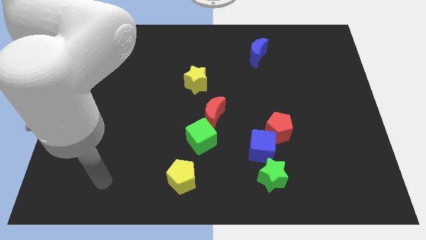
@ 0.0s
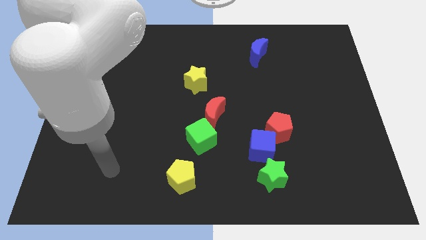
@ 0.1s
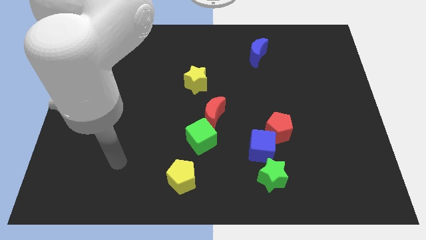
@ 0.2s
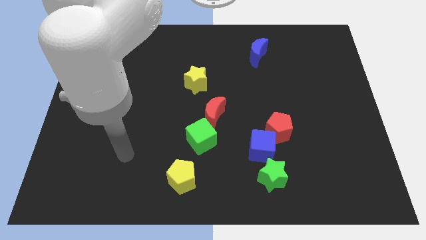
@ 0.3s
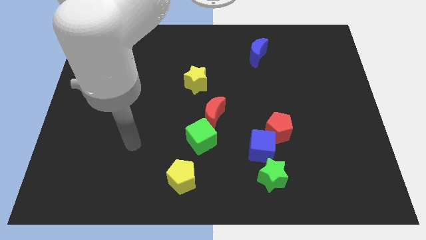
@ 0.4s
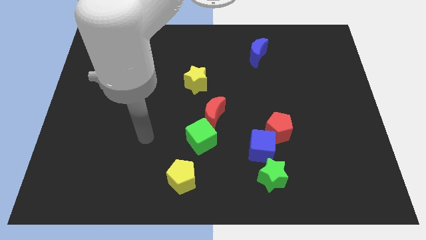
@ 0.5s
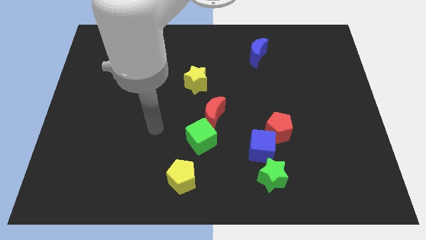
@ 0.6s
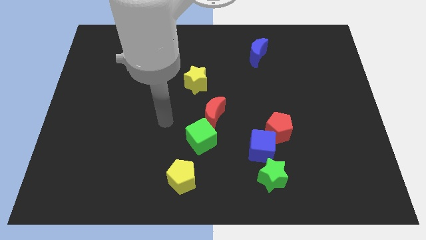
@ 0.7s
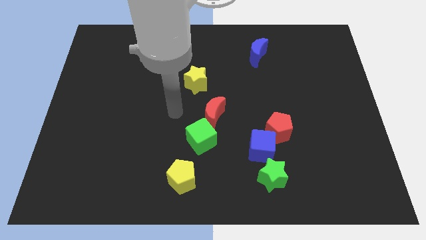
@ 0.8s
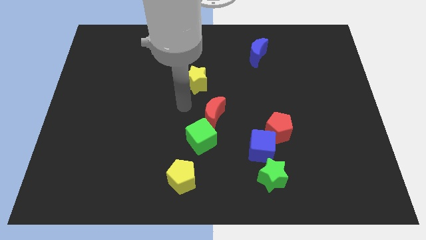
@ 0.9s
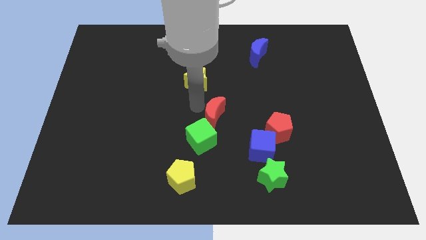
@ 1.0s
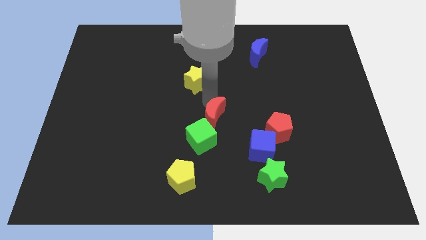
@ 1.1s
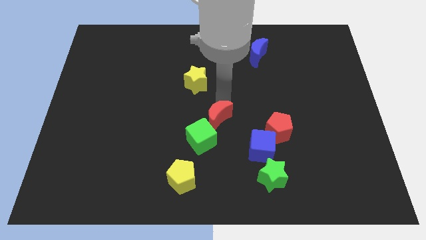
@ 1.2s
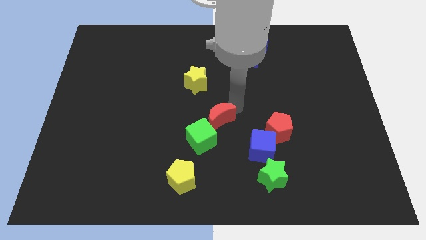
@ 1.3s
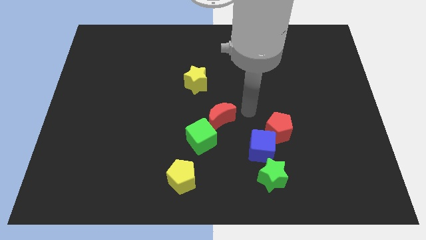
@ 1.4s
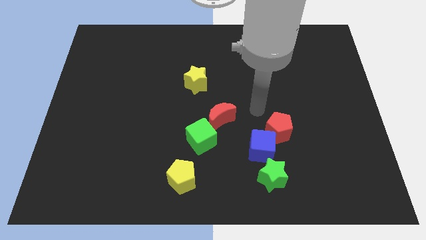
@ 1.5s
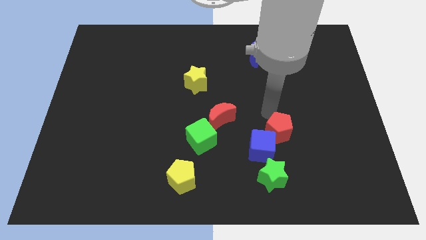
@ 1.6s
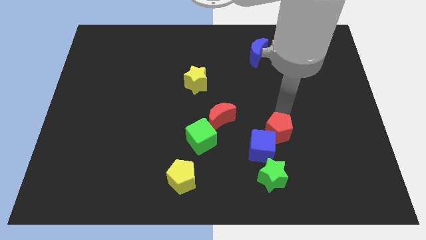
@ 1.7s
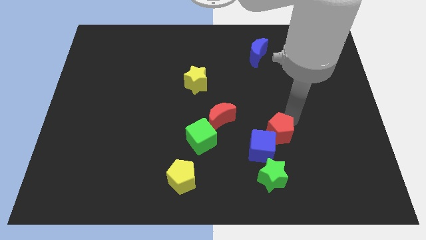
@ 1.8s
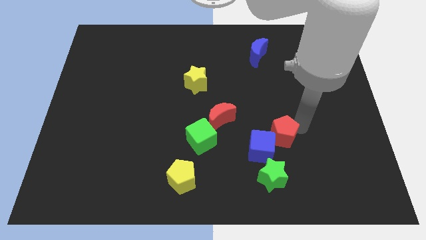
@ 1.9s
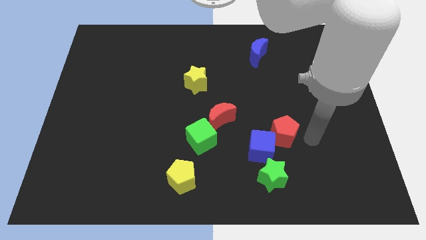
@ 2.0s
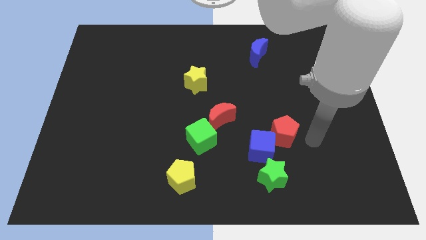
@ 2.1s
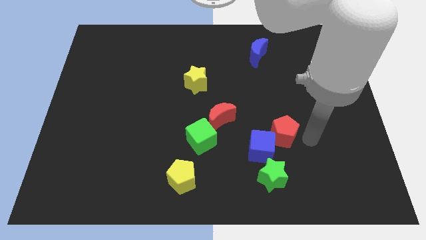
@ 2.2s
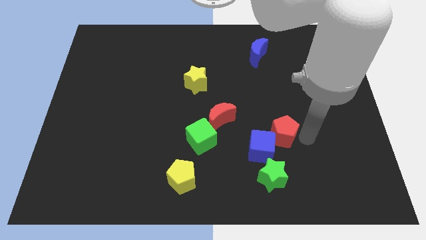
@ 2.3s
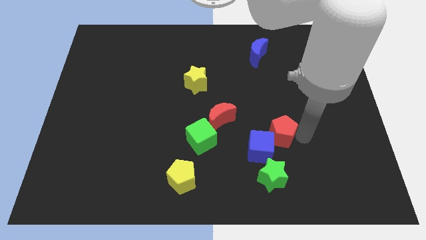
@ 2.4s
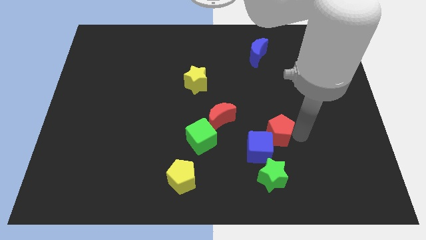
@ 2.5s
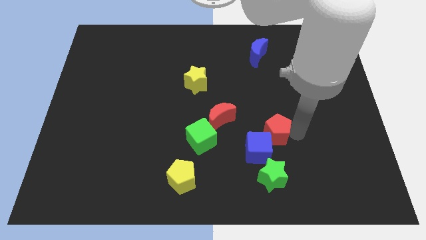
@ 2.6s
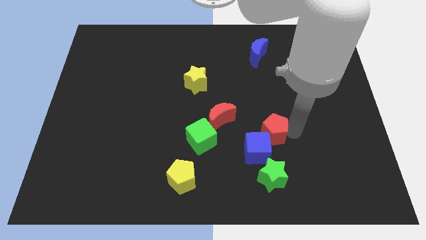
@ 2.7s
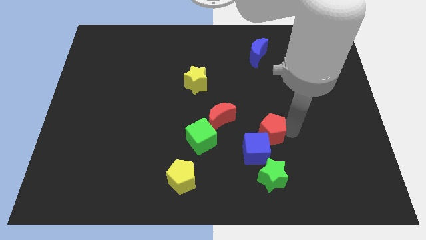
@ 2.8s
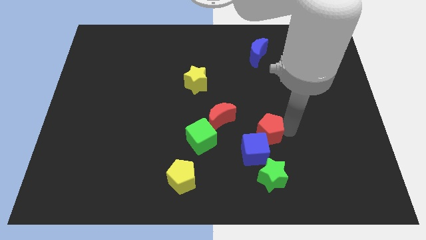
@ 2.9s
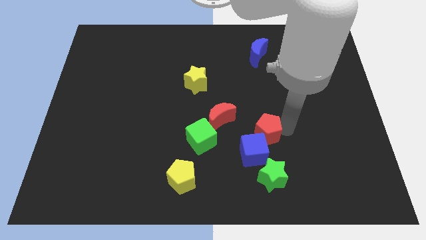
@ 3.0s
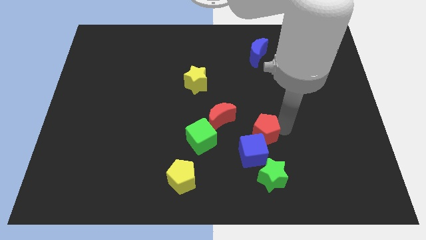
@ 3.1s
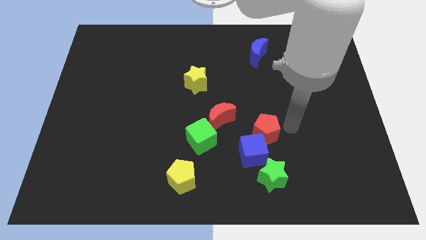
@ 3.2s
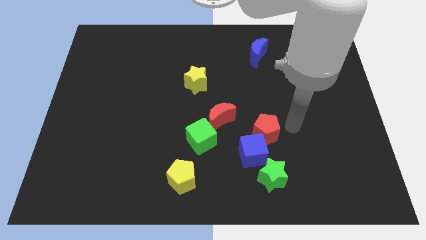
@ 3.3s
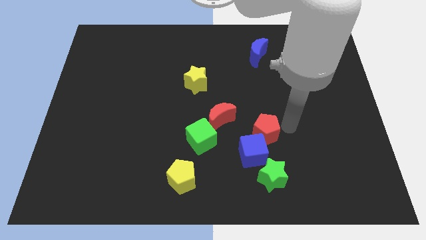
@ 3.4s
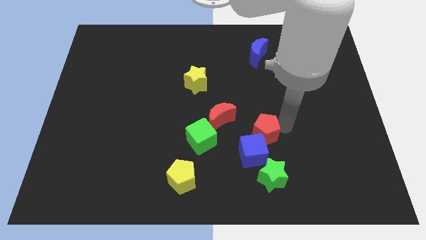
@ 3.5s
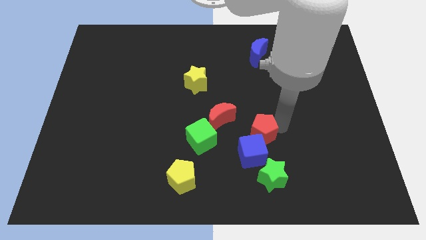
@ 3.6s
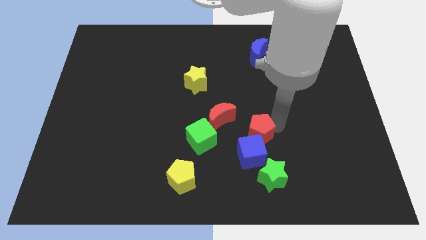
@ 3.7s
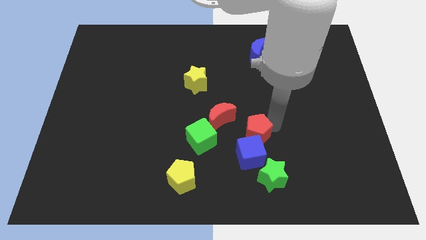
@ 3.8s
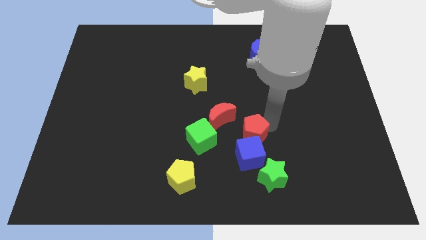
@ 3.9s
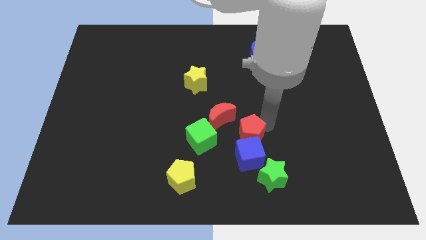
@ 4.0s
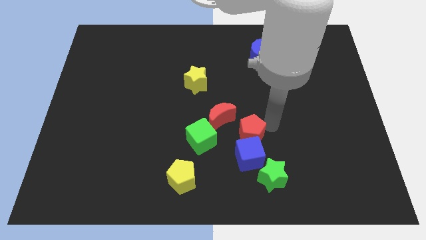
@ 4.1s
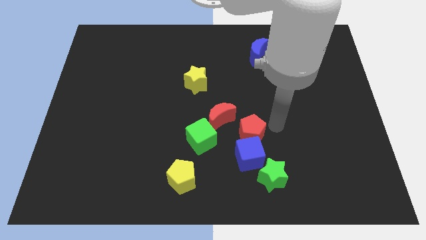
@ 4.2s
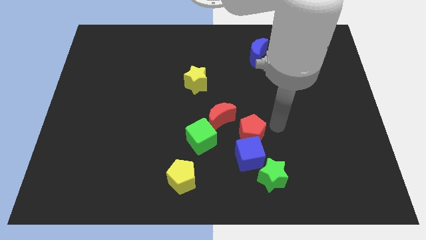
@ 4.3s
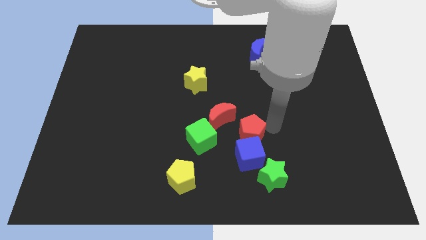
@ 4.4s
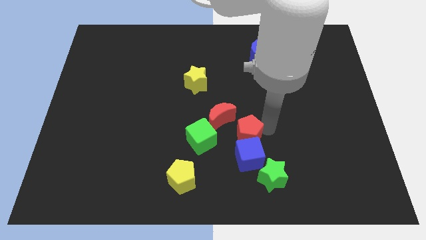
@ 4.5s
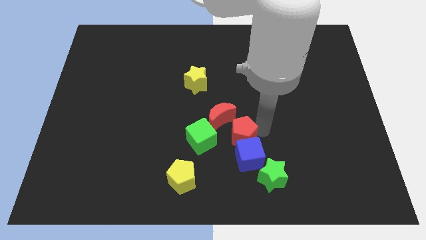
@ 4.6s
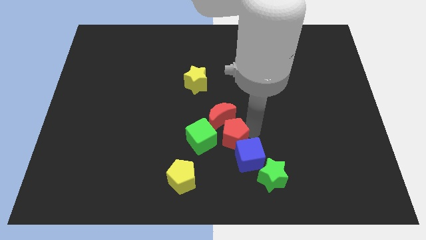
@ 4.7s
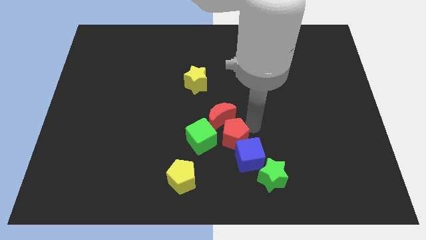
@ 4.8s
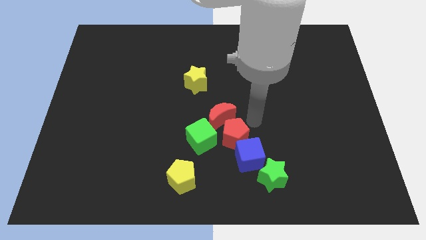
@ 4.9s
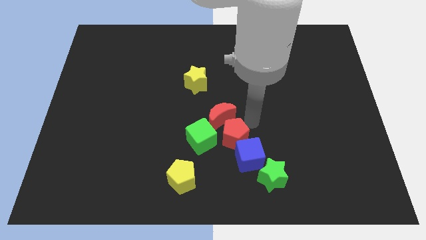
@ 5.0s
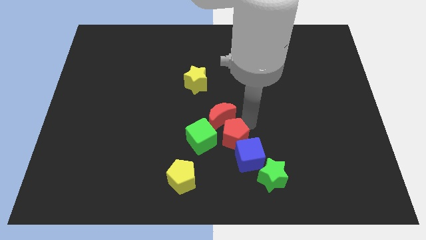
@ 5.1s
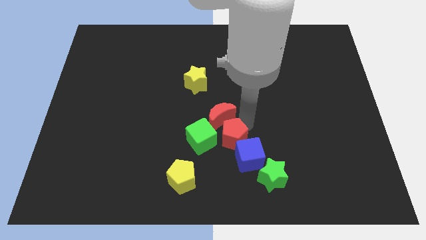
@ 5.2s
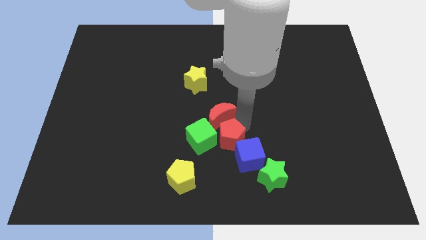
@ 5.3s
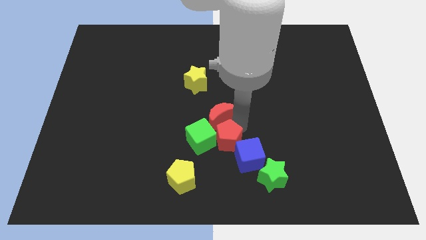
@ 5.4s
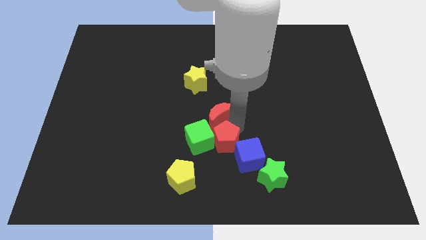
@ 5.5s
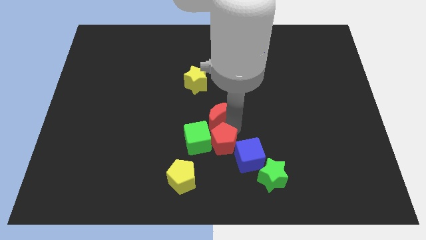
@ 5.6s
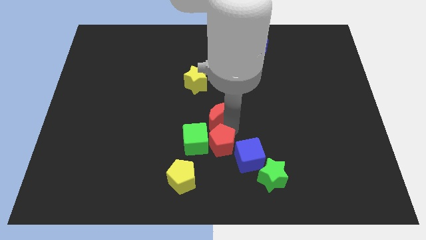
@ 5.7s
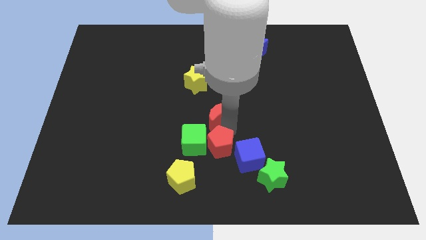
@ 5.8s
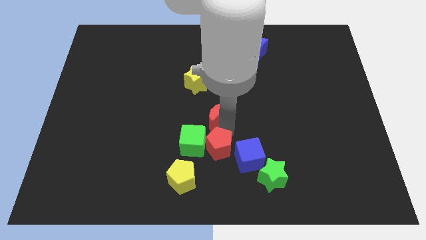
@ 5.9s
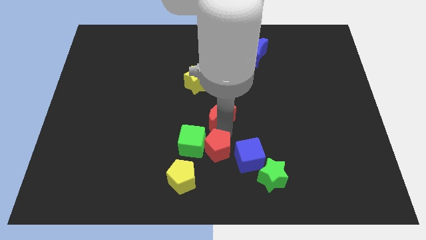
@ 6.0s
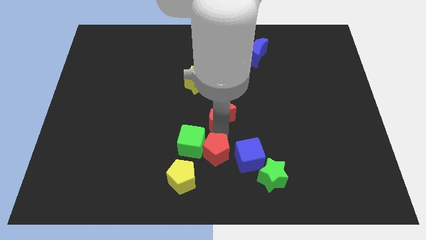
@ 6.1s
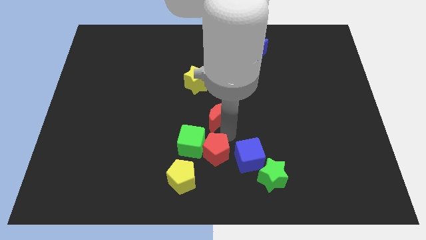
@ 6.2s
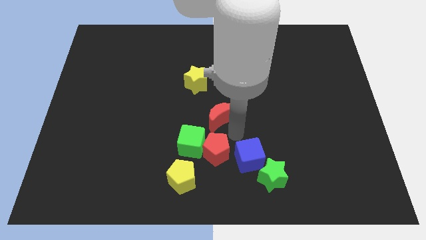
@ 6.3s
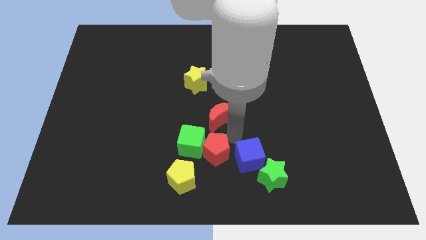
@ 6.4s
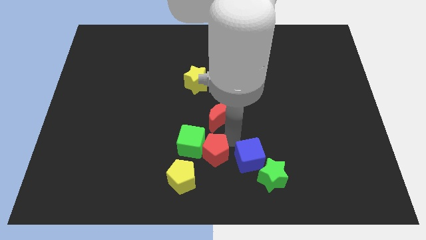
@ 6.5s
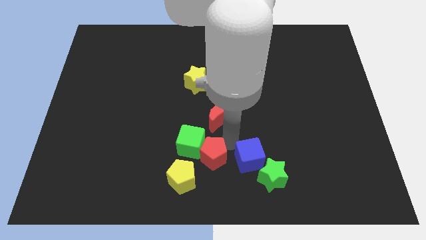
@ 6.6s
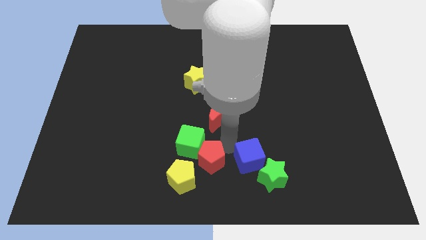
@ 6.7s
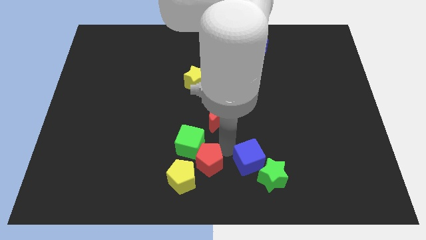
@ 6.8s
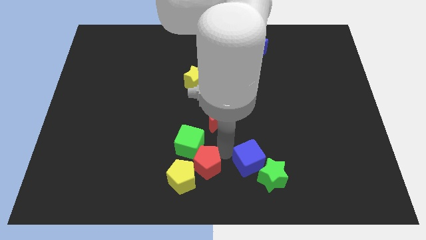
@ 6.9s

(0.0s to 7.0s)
push the red pentagon next to the yellow pentagon

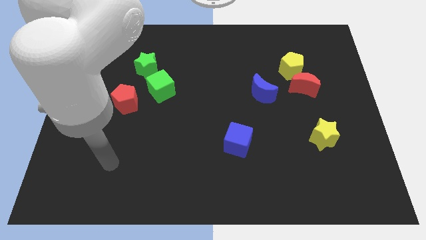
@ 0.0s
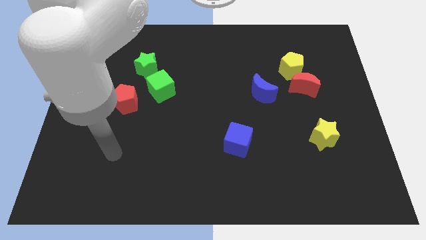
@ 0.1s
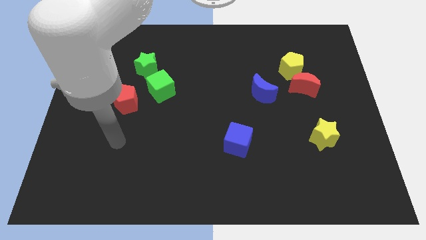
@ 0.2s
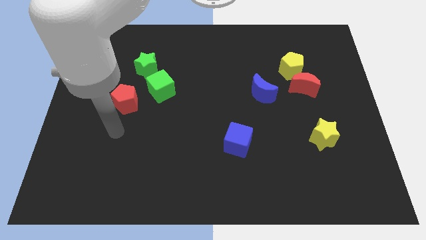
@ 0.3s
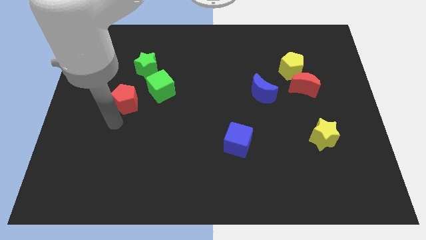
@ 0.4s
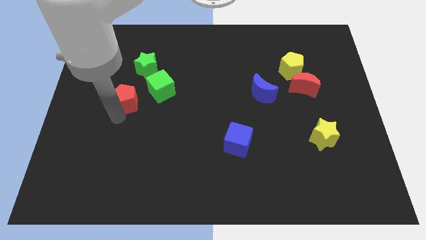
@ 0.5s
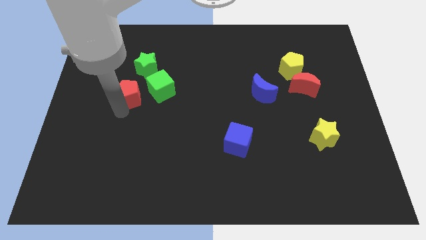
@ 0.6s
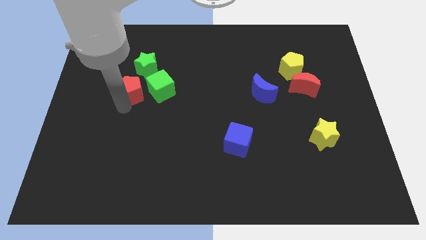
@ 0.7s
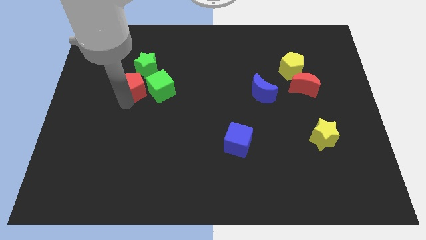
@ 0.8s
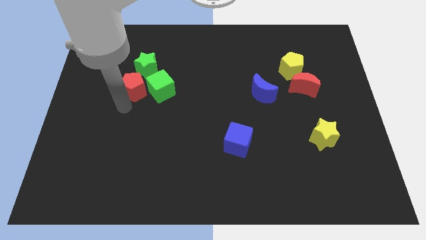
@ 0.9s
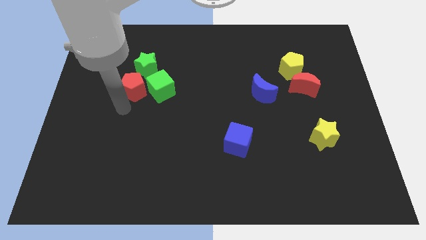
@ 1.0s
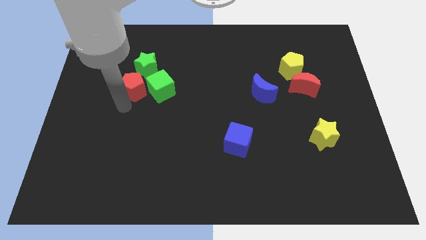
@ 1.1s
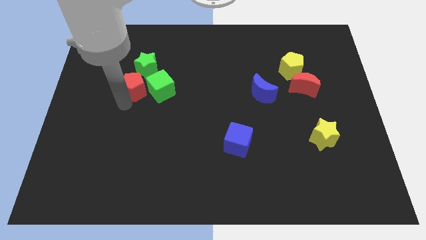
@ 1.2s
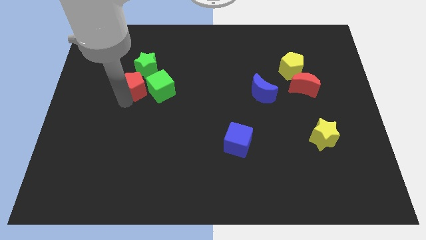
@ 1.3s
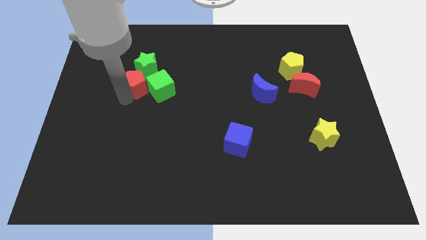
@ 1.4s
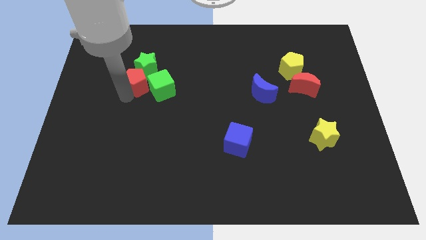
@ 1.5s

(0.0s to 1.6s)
move the red pentagon next to the green star
